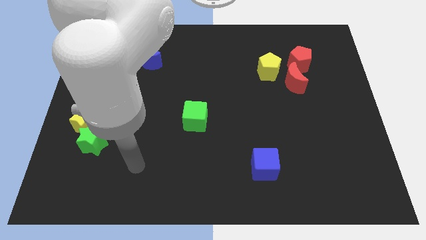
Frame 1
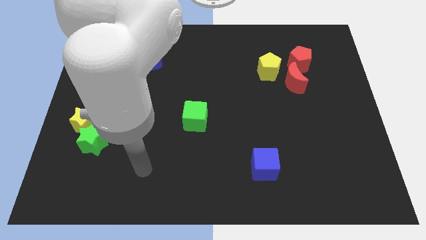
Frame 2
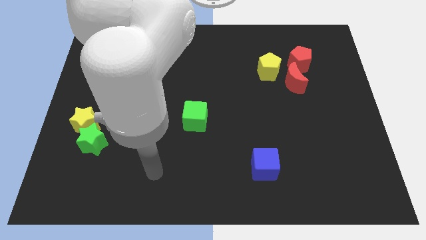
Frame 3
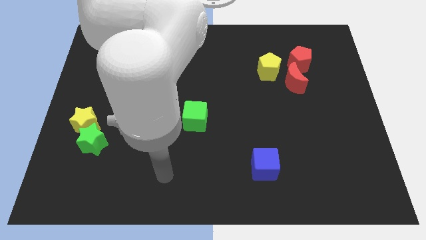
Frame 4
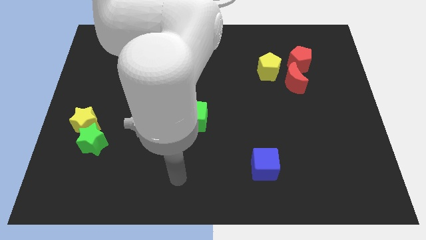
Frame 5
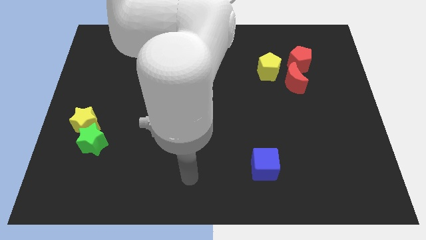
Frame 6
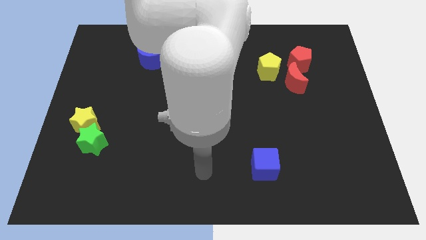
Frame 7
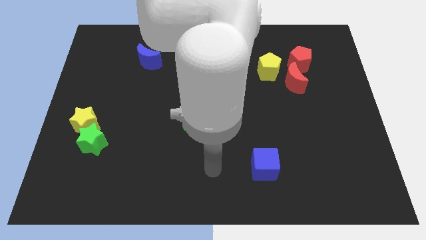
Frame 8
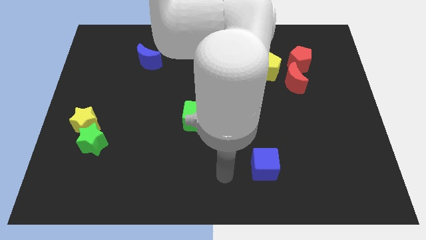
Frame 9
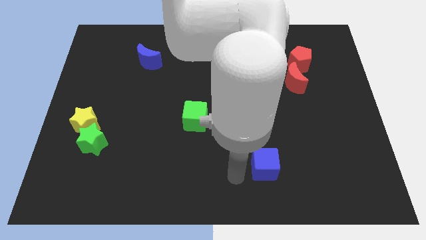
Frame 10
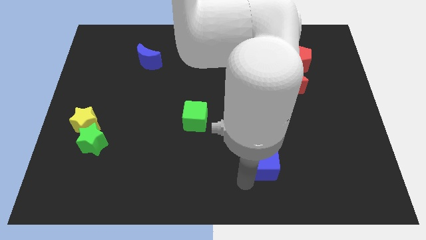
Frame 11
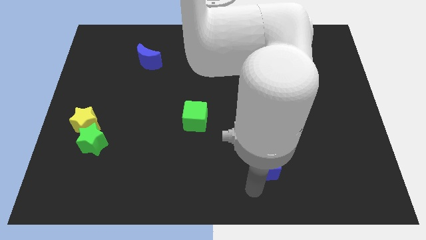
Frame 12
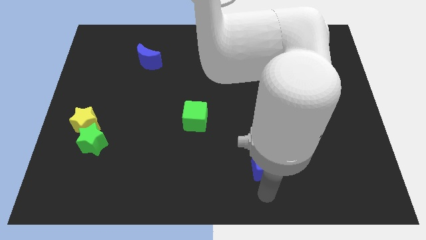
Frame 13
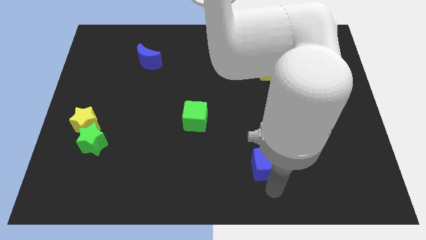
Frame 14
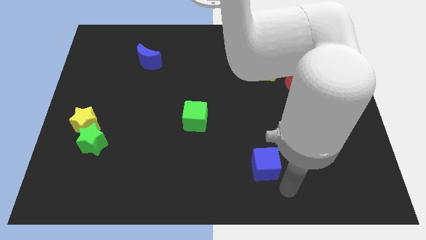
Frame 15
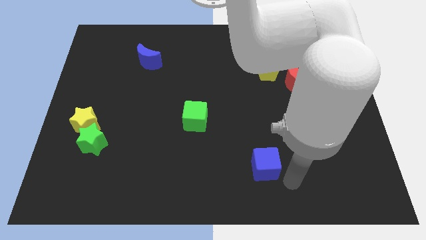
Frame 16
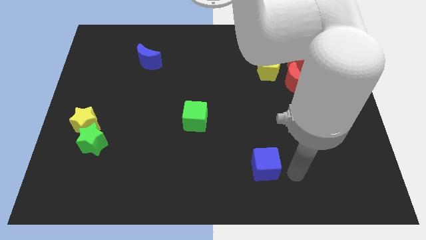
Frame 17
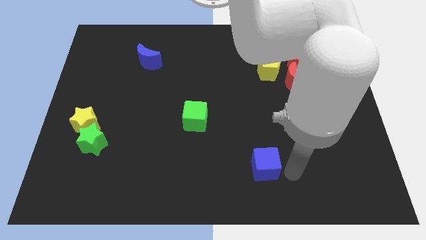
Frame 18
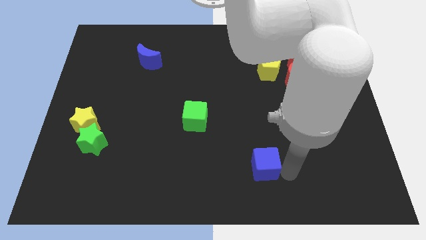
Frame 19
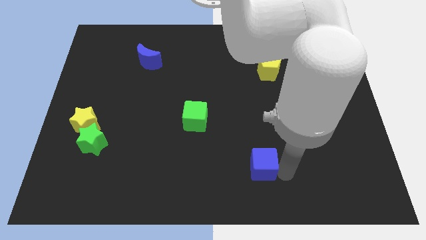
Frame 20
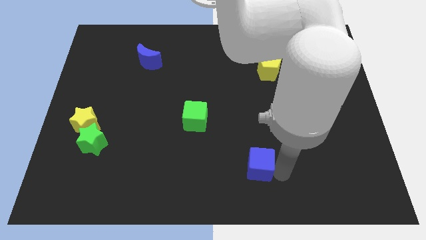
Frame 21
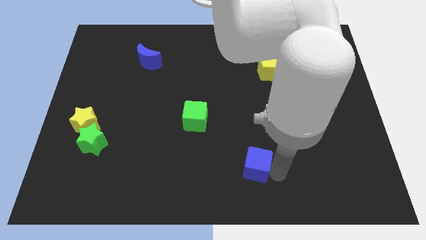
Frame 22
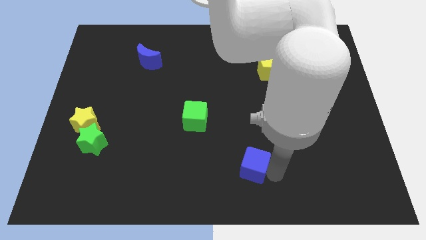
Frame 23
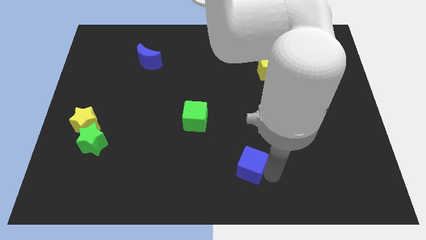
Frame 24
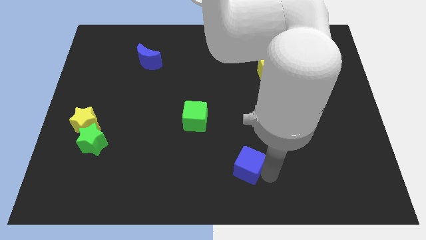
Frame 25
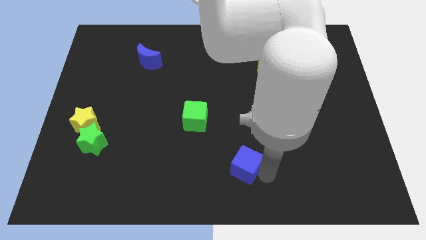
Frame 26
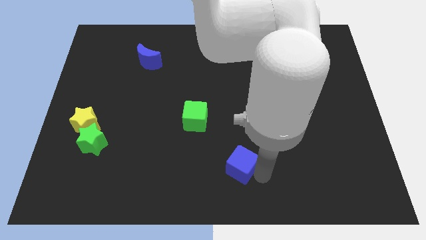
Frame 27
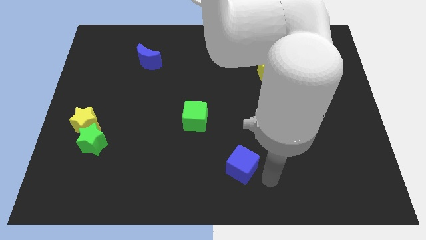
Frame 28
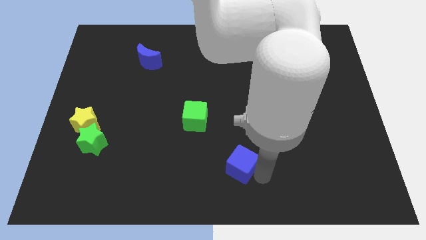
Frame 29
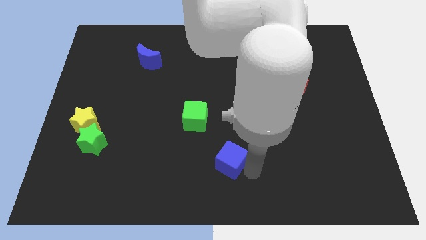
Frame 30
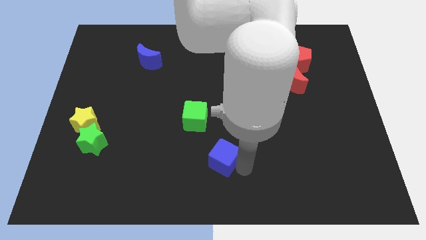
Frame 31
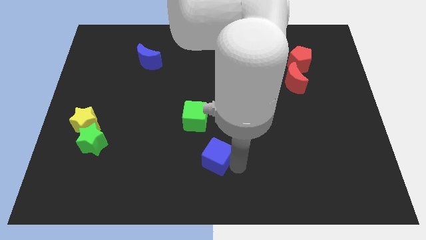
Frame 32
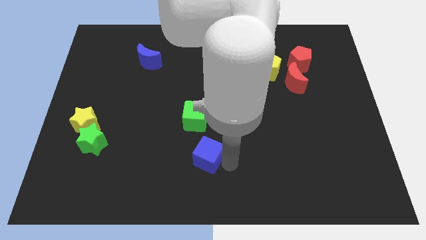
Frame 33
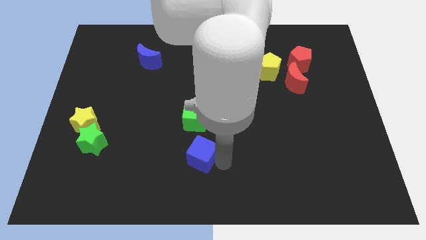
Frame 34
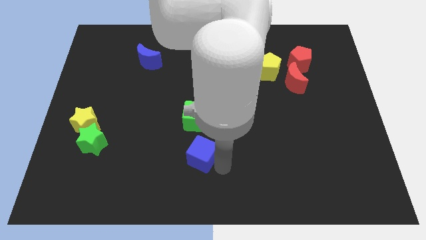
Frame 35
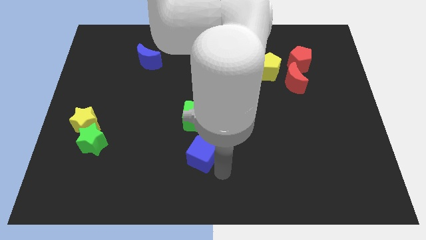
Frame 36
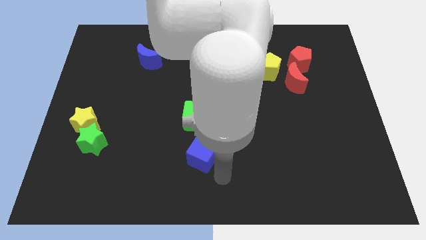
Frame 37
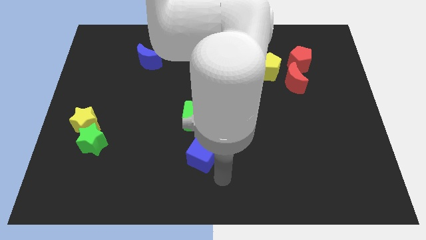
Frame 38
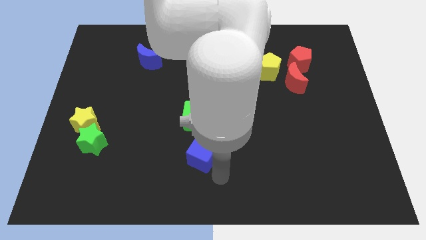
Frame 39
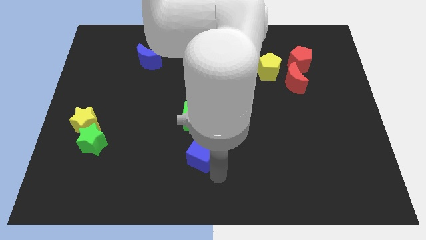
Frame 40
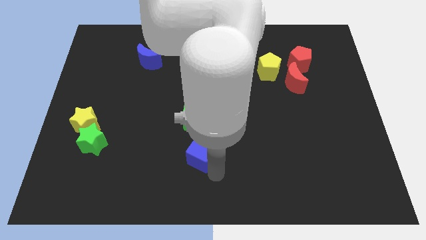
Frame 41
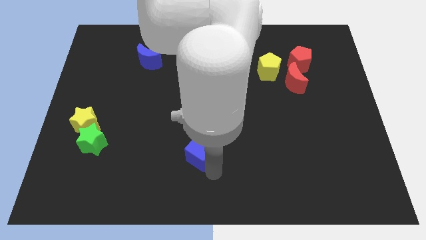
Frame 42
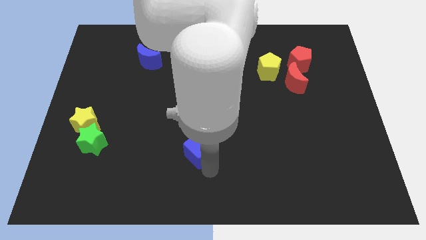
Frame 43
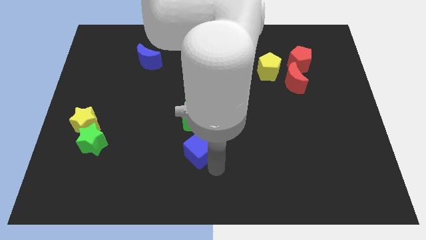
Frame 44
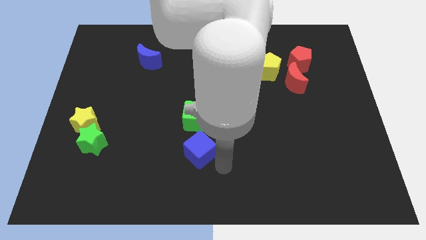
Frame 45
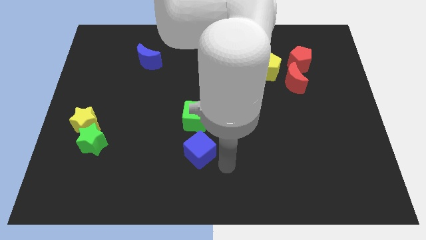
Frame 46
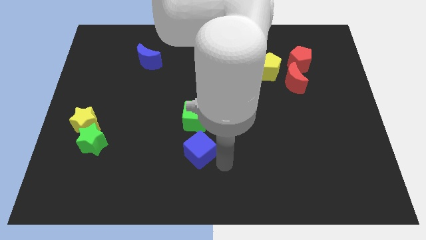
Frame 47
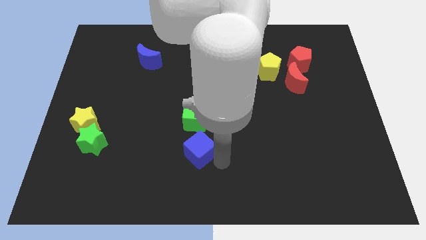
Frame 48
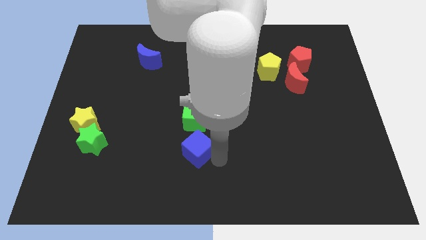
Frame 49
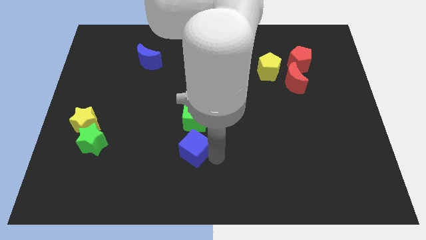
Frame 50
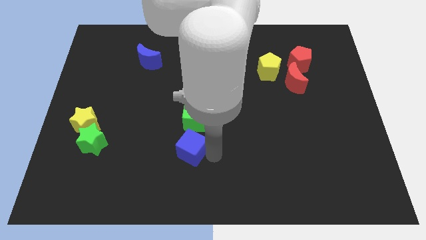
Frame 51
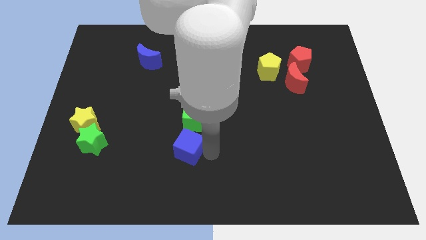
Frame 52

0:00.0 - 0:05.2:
move the blue cube to the bottom left side of the green cube

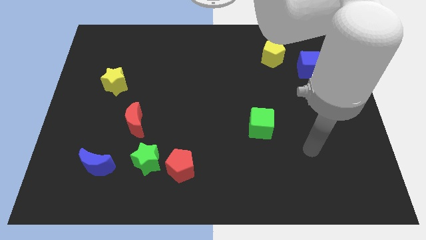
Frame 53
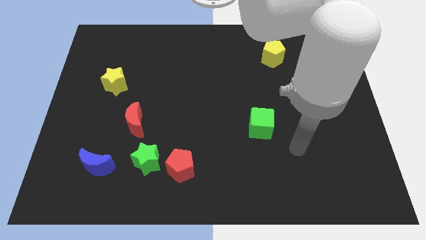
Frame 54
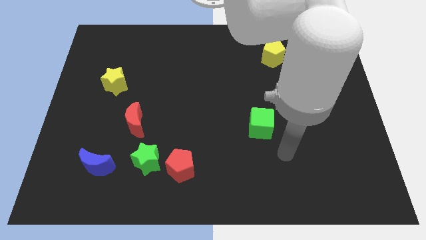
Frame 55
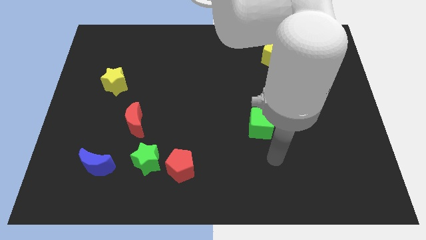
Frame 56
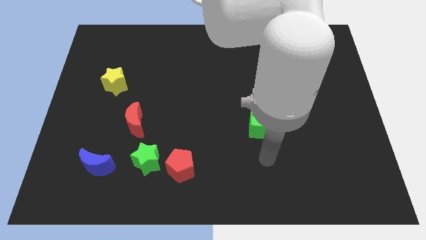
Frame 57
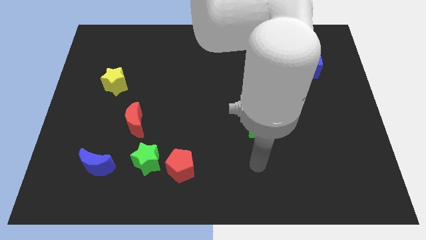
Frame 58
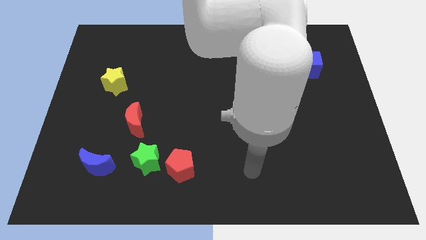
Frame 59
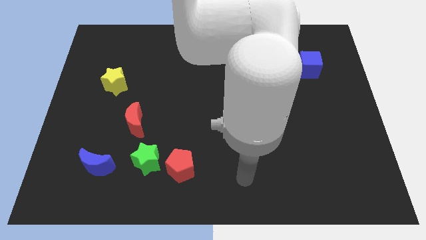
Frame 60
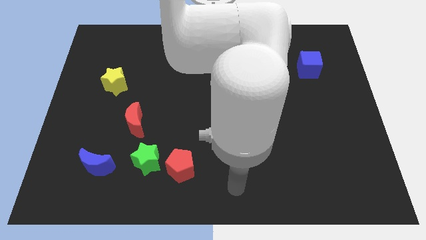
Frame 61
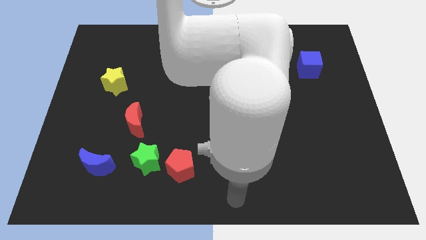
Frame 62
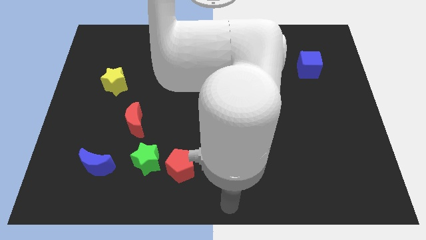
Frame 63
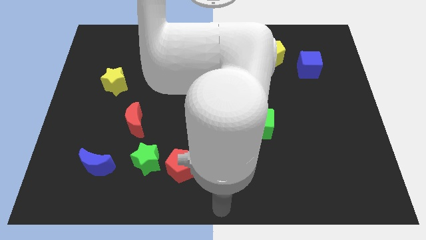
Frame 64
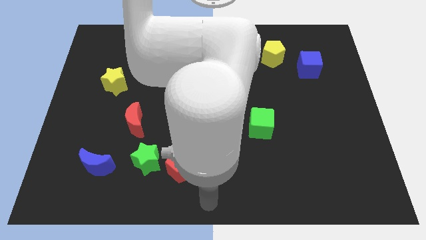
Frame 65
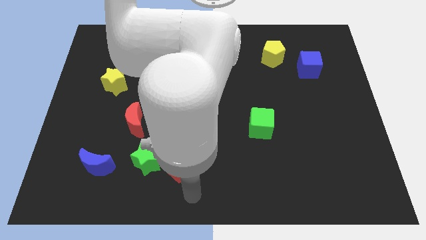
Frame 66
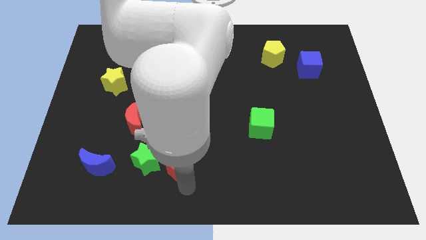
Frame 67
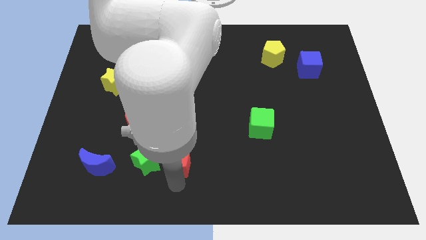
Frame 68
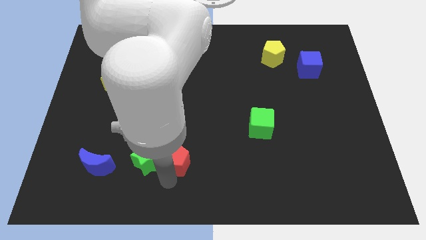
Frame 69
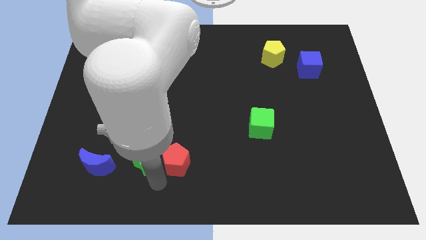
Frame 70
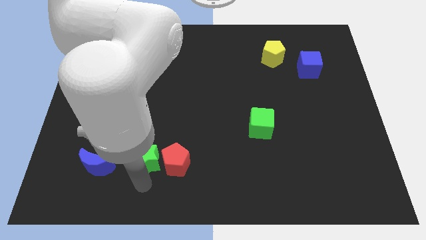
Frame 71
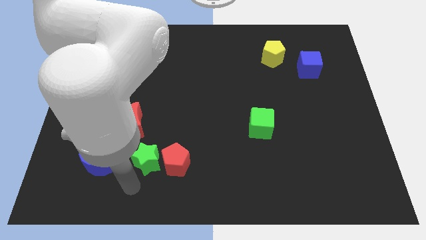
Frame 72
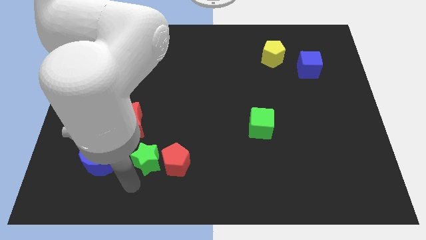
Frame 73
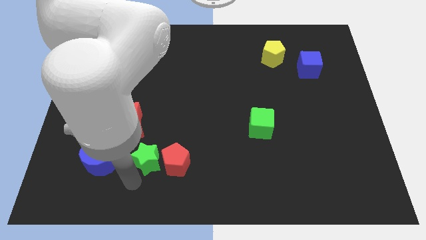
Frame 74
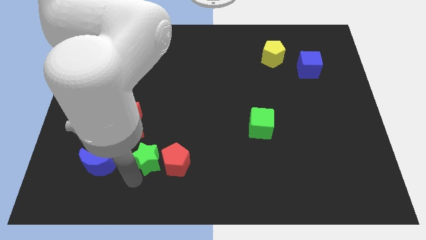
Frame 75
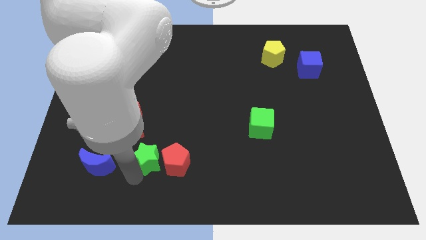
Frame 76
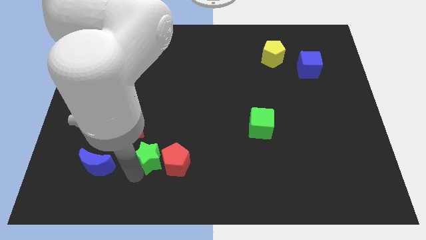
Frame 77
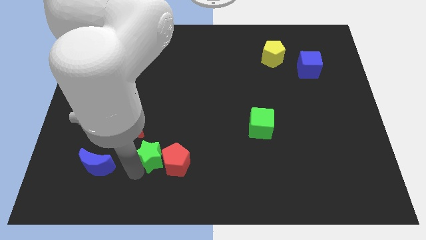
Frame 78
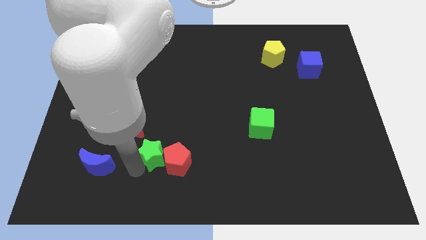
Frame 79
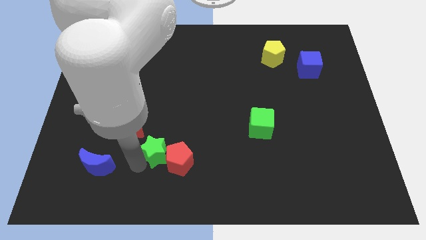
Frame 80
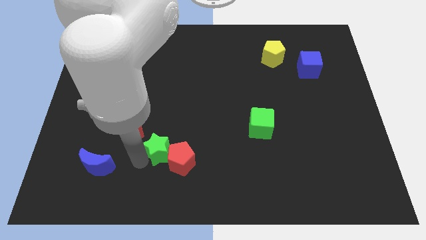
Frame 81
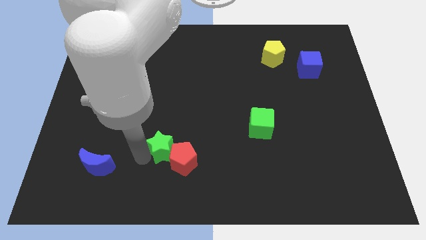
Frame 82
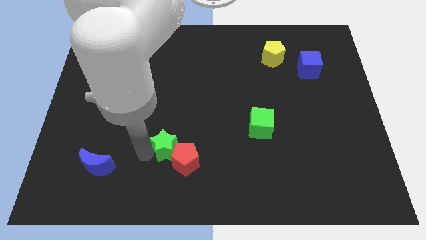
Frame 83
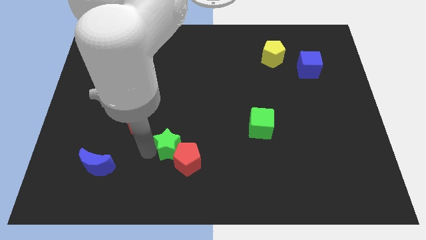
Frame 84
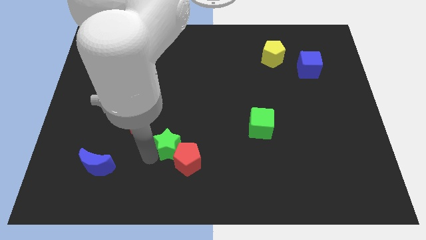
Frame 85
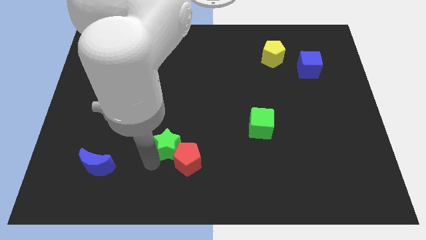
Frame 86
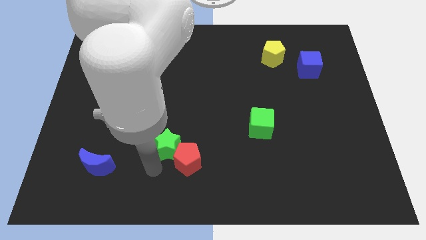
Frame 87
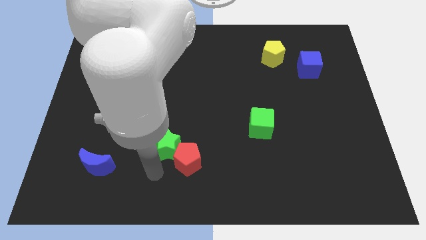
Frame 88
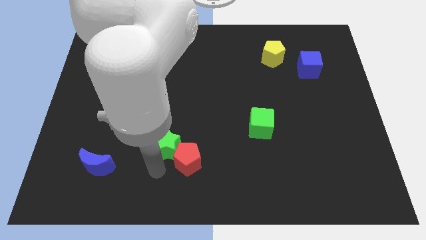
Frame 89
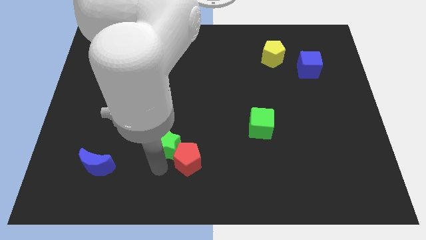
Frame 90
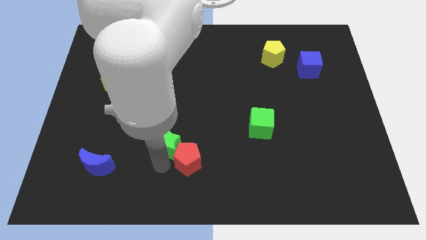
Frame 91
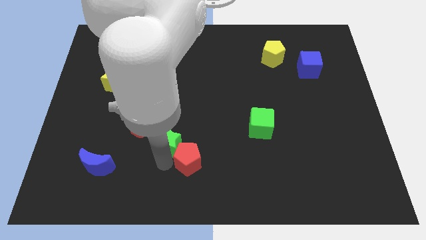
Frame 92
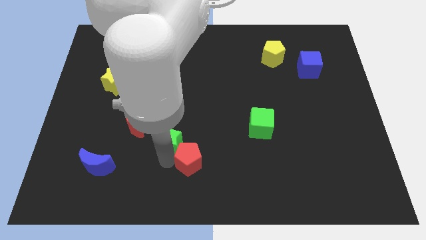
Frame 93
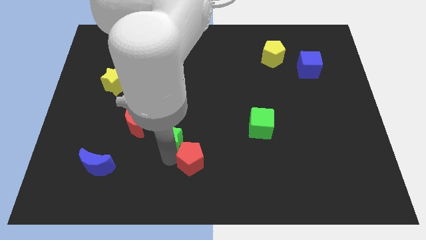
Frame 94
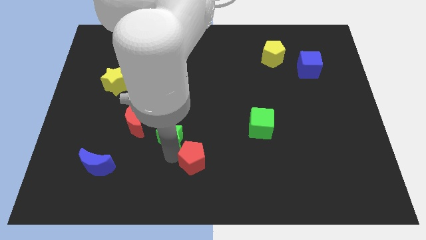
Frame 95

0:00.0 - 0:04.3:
slide the green star to the right of the red moon
